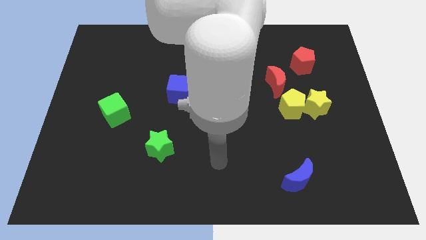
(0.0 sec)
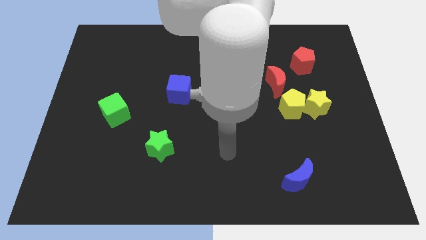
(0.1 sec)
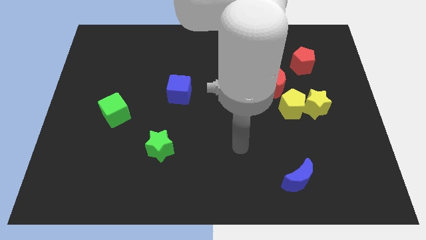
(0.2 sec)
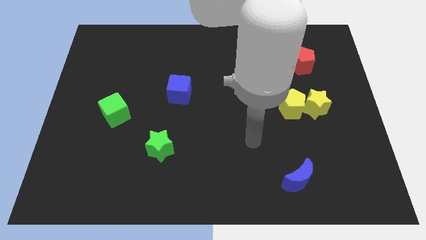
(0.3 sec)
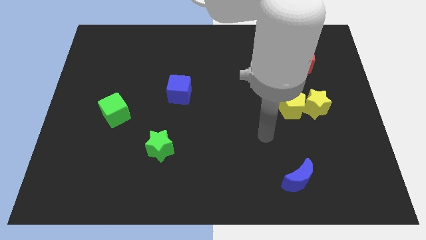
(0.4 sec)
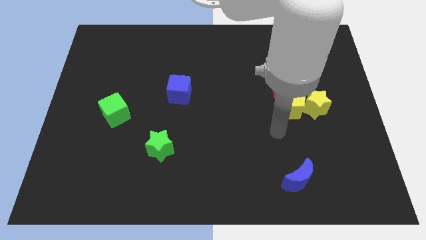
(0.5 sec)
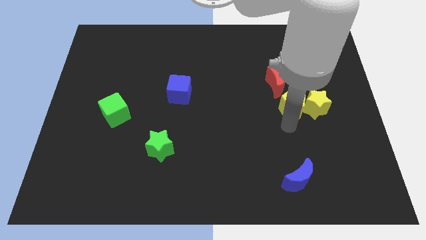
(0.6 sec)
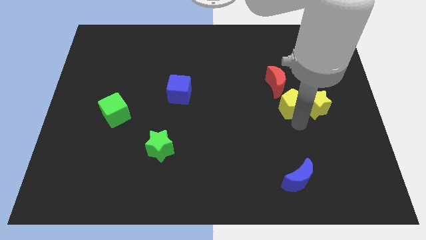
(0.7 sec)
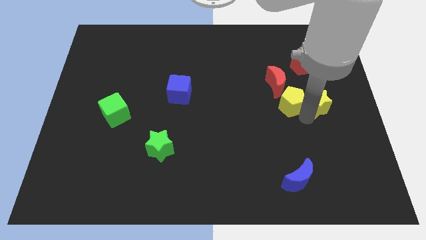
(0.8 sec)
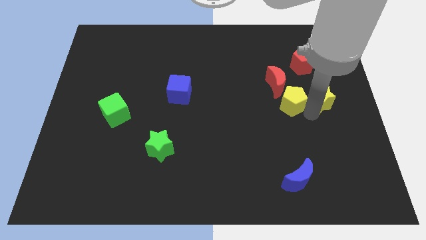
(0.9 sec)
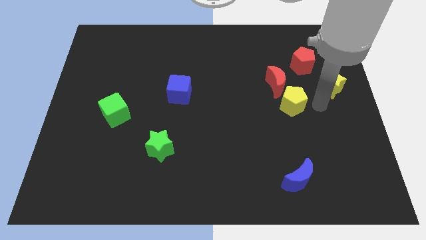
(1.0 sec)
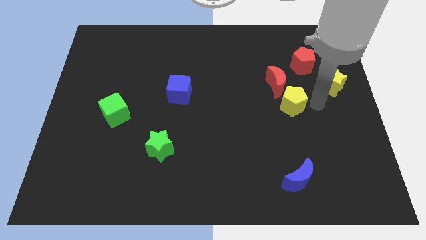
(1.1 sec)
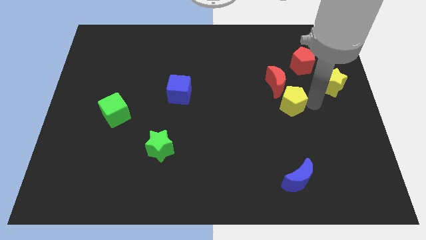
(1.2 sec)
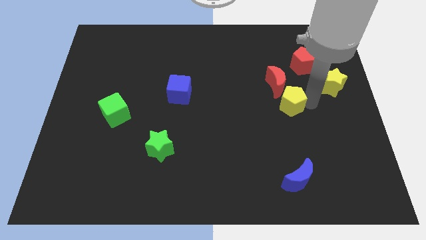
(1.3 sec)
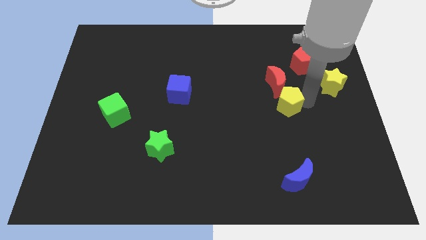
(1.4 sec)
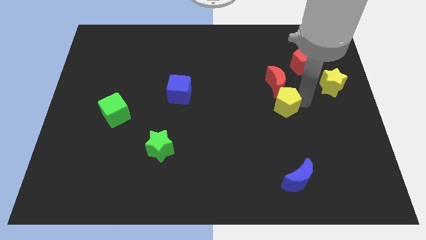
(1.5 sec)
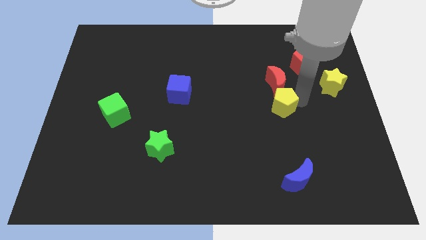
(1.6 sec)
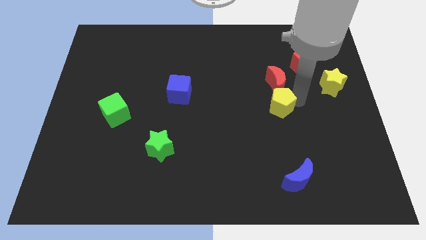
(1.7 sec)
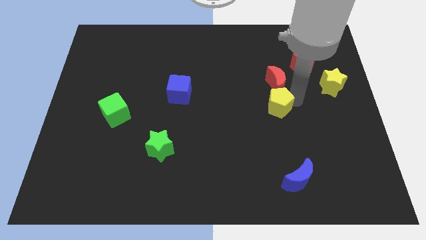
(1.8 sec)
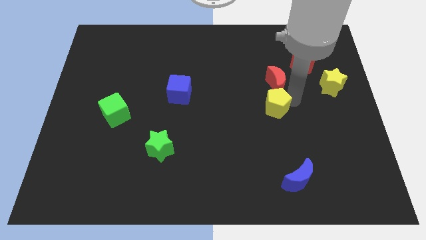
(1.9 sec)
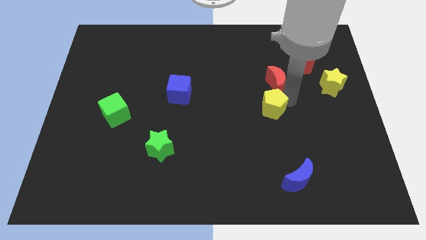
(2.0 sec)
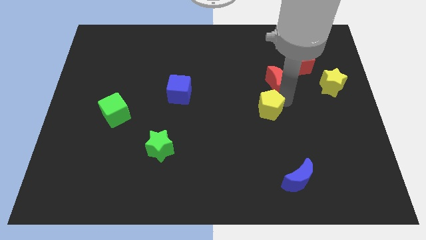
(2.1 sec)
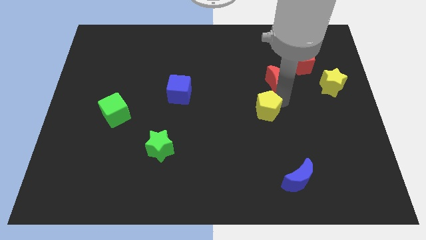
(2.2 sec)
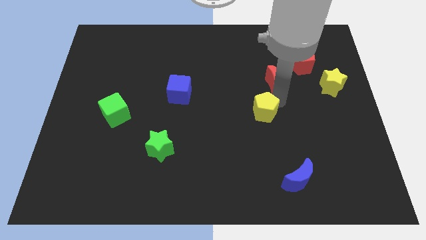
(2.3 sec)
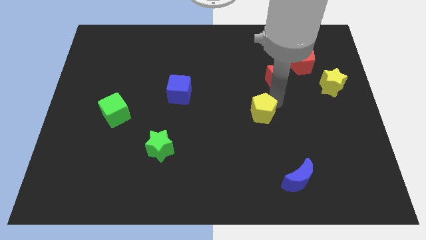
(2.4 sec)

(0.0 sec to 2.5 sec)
slide the yellow pentagon somewhat to the left

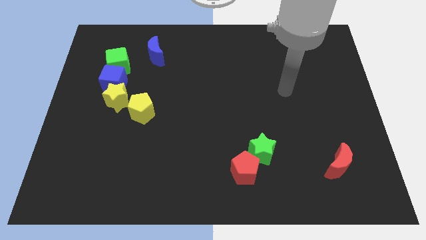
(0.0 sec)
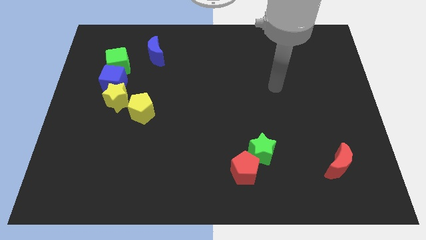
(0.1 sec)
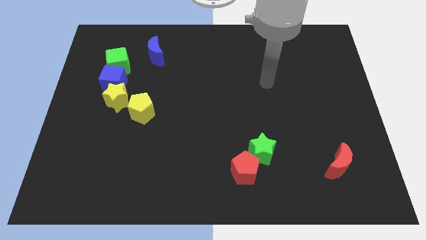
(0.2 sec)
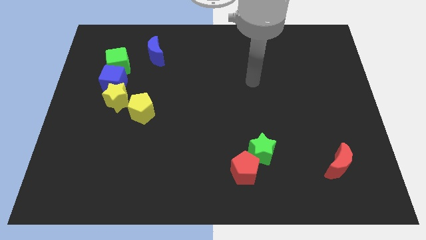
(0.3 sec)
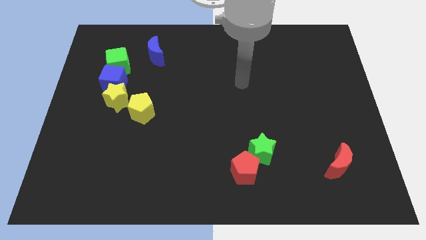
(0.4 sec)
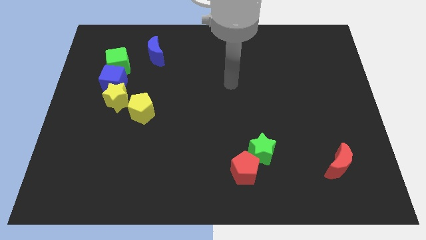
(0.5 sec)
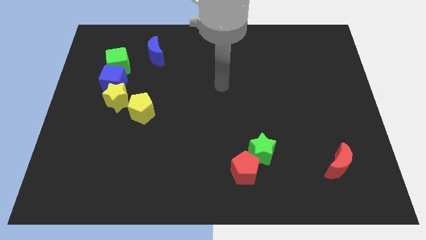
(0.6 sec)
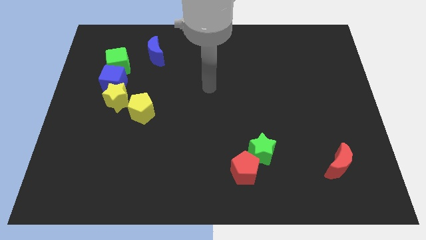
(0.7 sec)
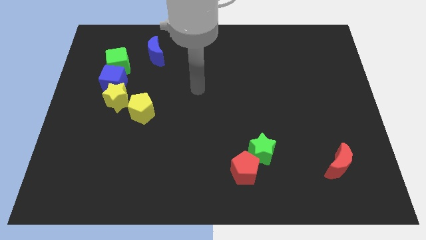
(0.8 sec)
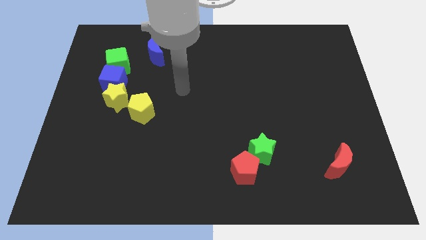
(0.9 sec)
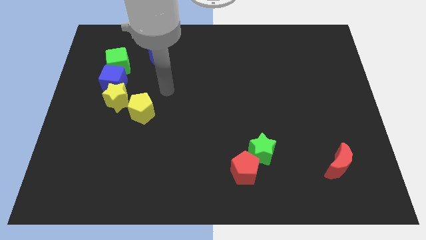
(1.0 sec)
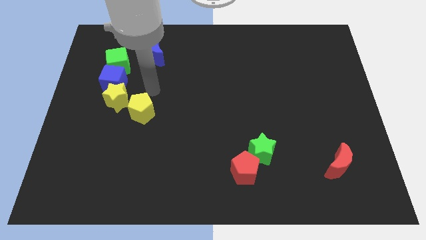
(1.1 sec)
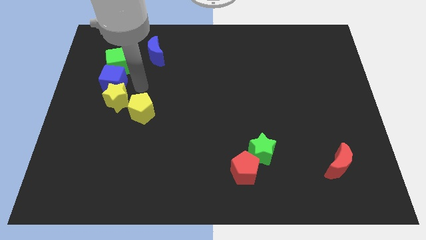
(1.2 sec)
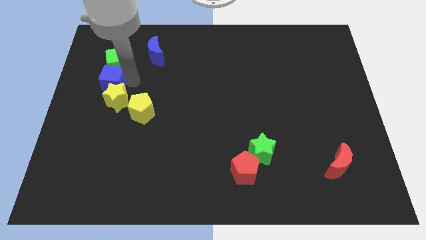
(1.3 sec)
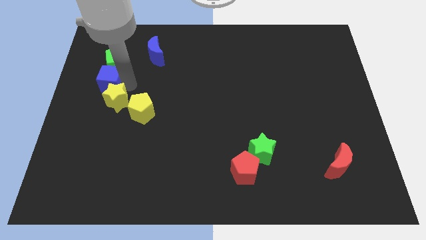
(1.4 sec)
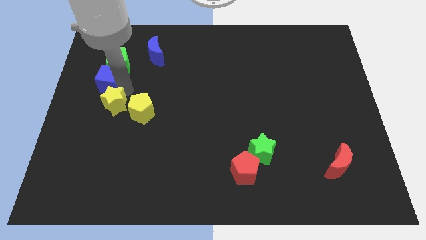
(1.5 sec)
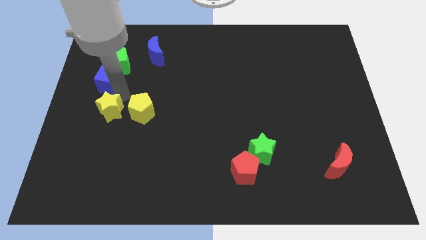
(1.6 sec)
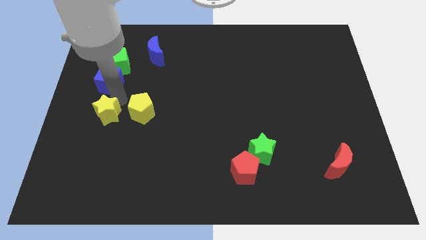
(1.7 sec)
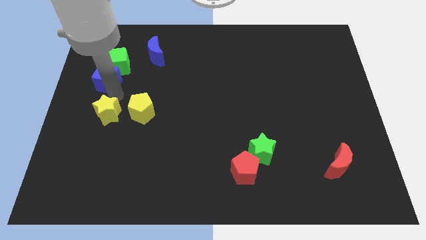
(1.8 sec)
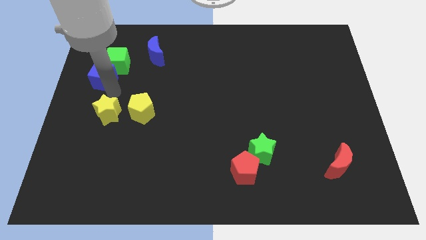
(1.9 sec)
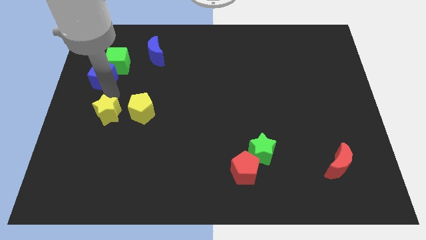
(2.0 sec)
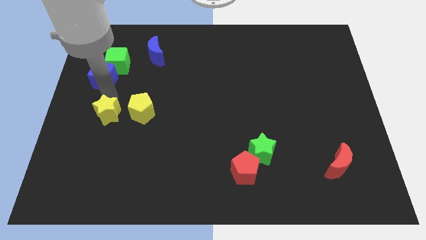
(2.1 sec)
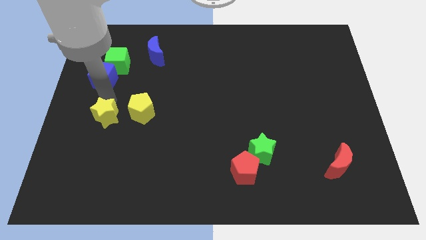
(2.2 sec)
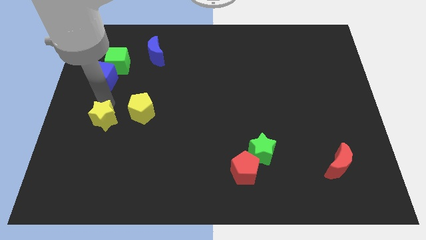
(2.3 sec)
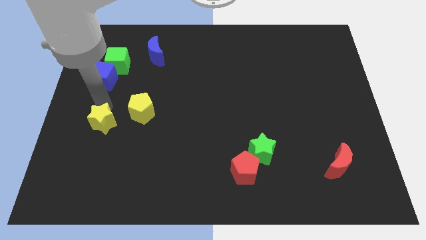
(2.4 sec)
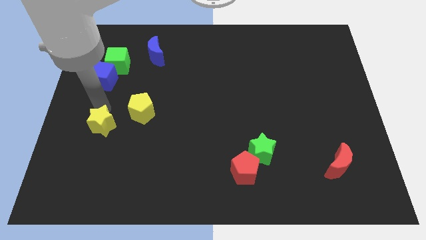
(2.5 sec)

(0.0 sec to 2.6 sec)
push the yellow star a little bit downwards

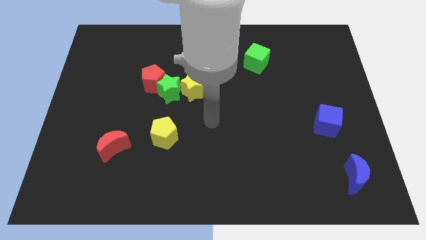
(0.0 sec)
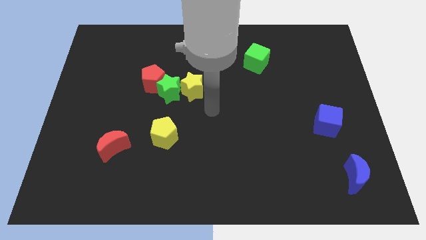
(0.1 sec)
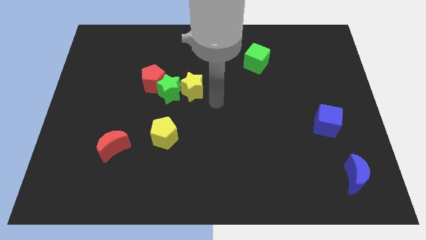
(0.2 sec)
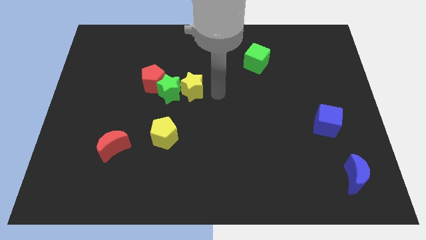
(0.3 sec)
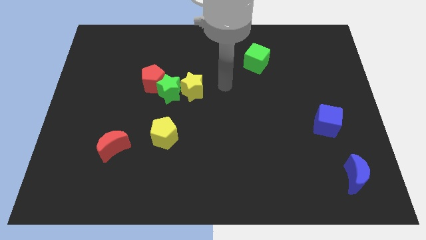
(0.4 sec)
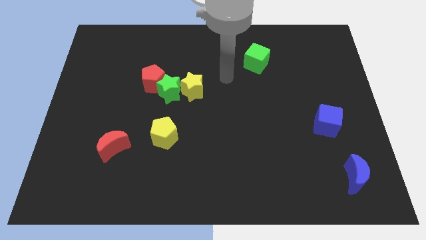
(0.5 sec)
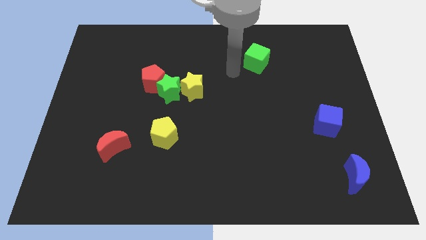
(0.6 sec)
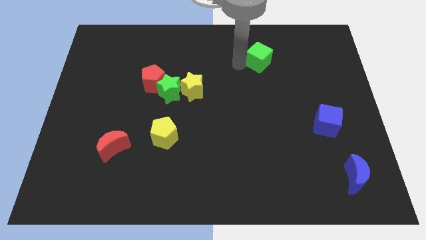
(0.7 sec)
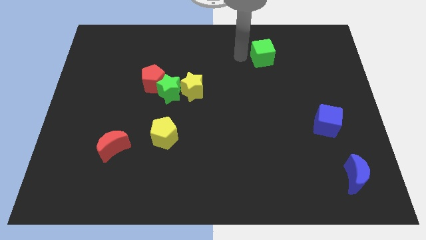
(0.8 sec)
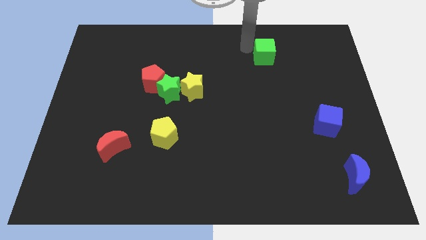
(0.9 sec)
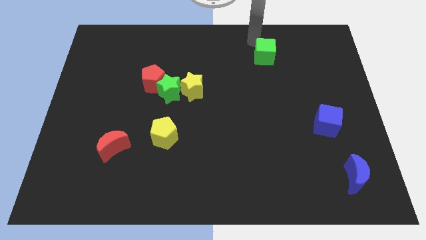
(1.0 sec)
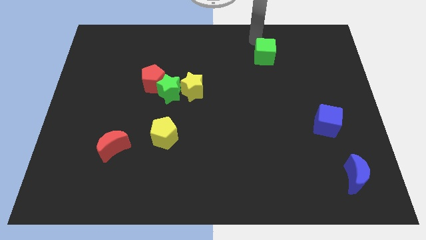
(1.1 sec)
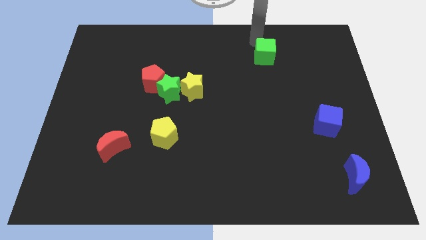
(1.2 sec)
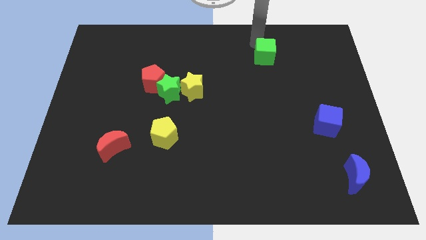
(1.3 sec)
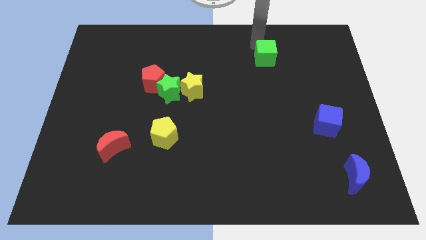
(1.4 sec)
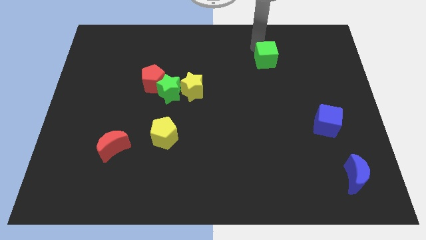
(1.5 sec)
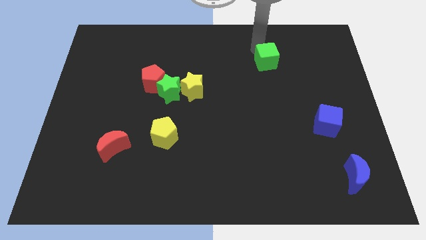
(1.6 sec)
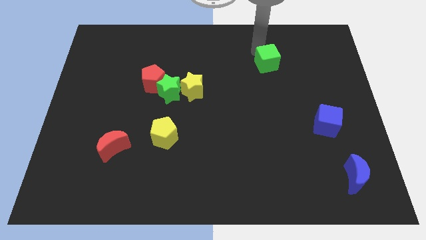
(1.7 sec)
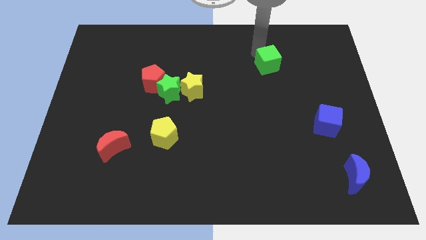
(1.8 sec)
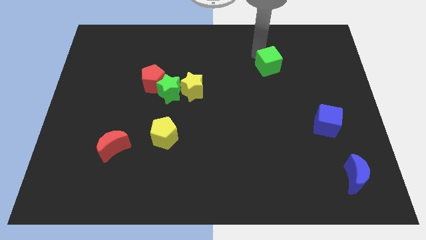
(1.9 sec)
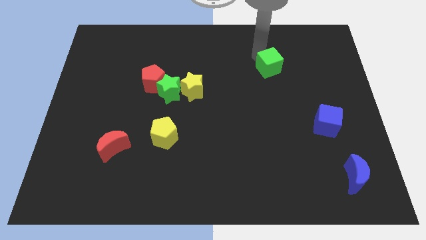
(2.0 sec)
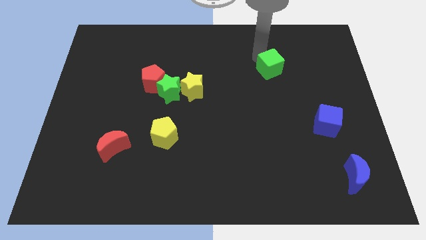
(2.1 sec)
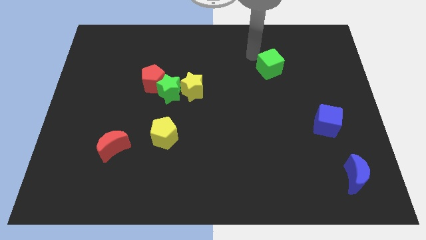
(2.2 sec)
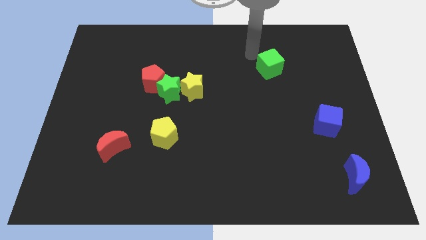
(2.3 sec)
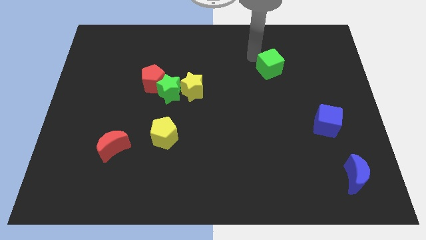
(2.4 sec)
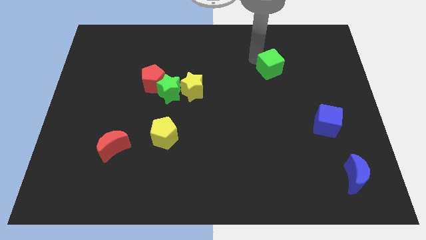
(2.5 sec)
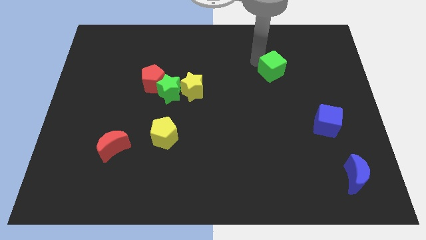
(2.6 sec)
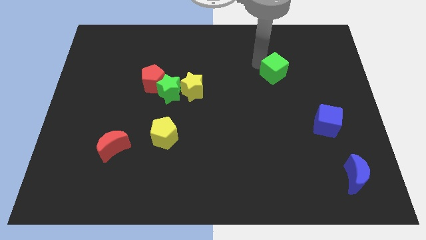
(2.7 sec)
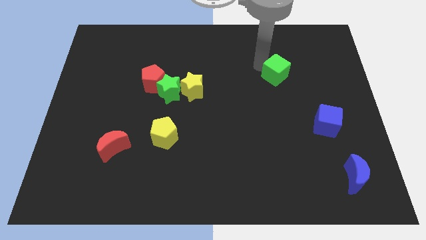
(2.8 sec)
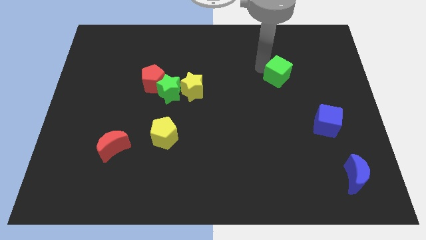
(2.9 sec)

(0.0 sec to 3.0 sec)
move the green cube diagonally down and to the right a bit
